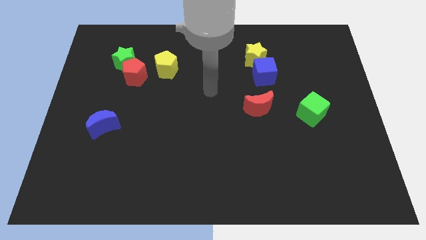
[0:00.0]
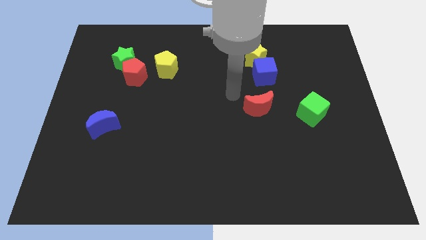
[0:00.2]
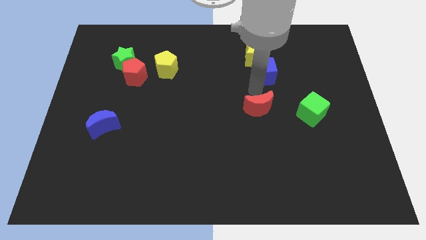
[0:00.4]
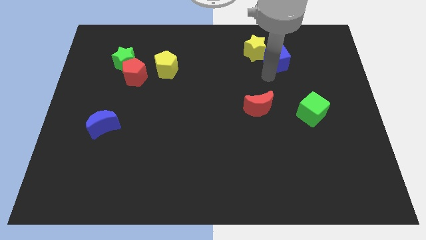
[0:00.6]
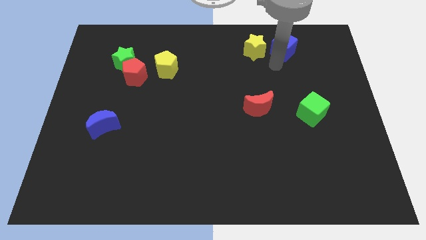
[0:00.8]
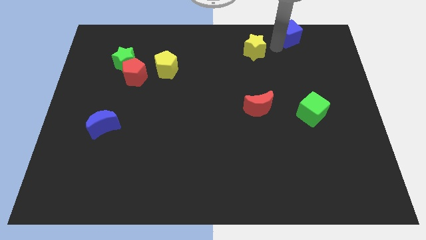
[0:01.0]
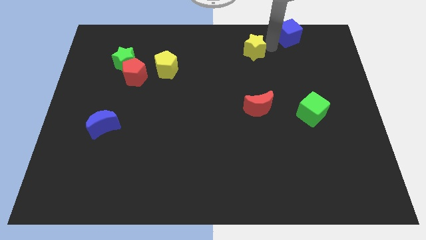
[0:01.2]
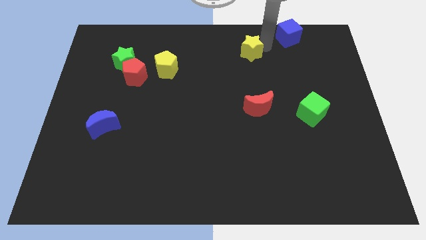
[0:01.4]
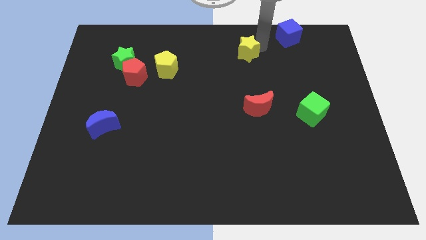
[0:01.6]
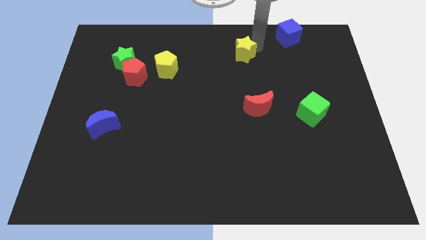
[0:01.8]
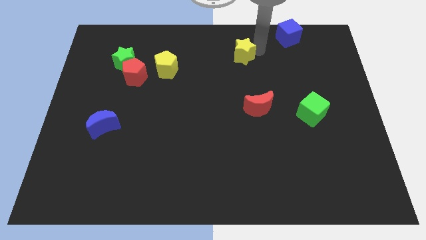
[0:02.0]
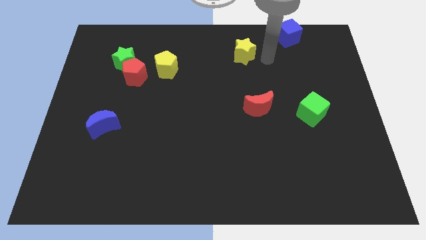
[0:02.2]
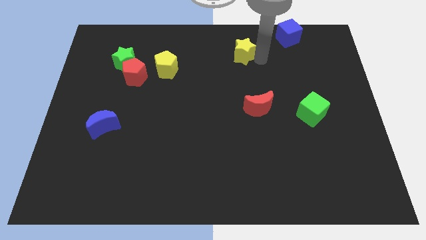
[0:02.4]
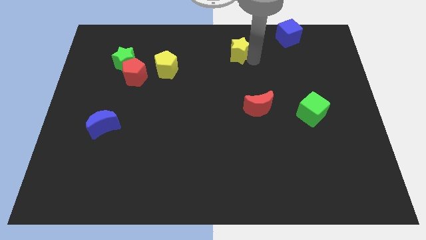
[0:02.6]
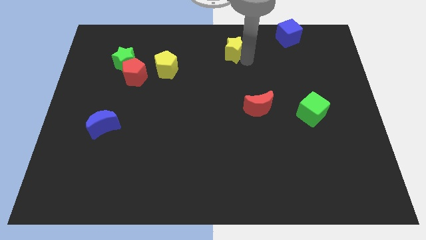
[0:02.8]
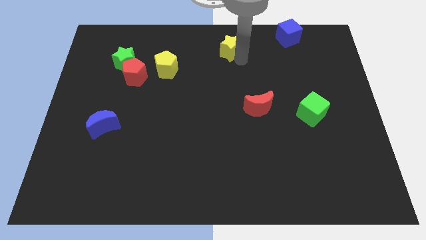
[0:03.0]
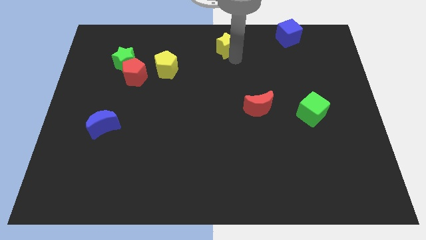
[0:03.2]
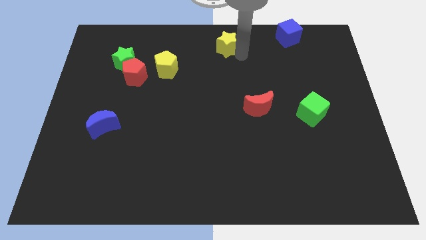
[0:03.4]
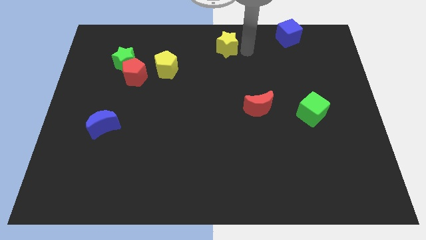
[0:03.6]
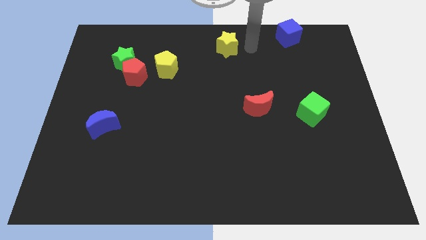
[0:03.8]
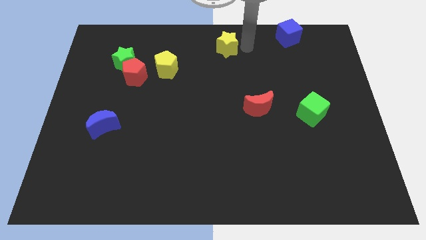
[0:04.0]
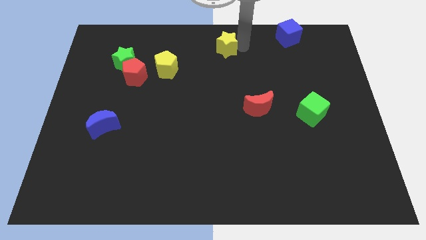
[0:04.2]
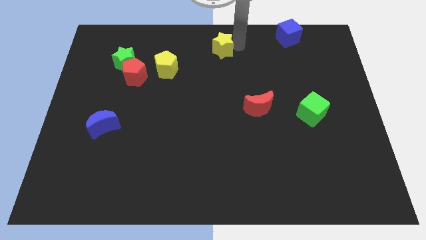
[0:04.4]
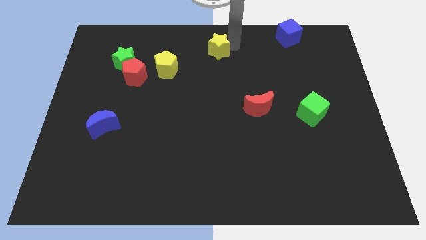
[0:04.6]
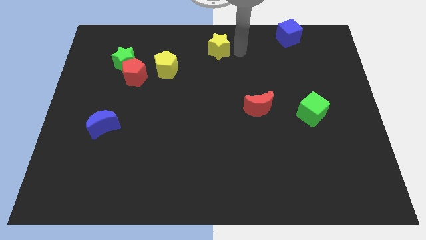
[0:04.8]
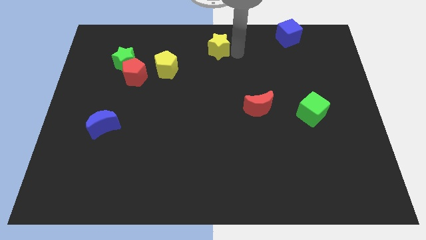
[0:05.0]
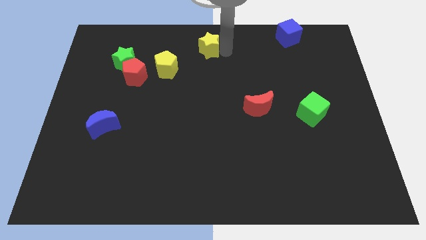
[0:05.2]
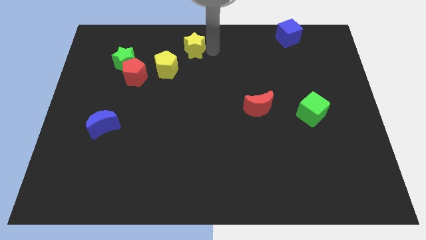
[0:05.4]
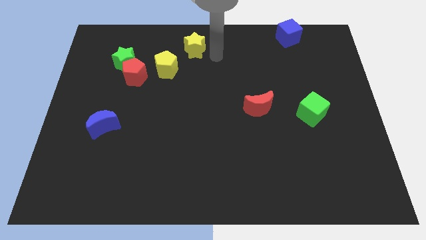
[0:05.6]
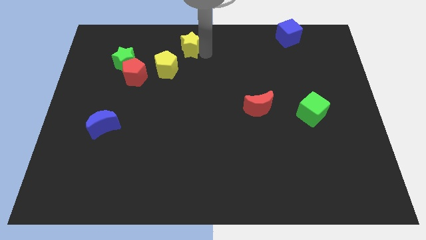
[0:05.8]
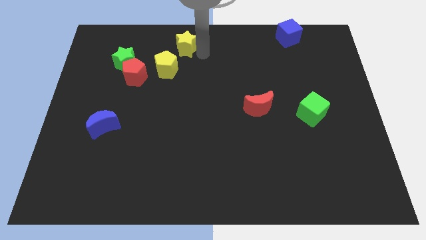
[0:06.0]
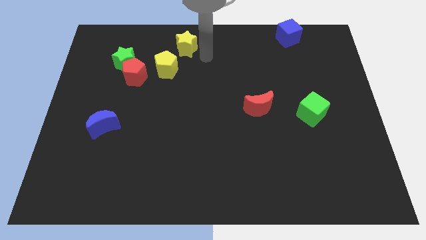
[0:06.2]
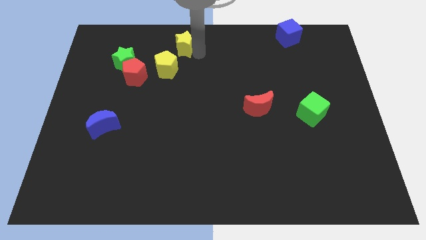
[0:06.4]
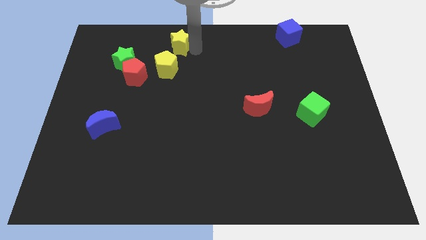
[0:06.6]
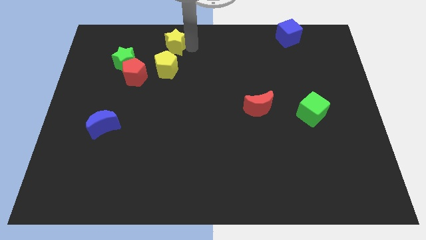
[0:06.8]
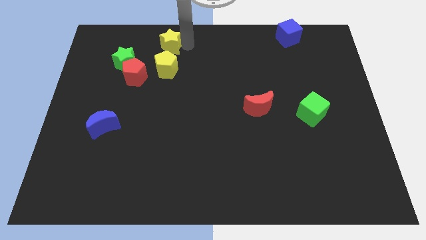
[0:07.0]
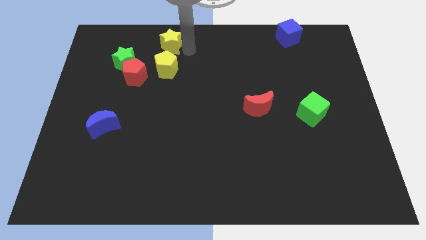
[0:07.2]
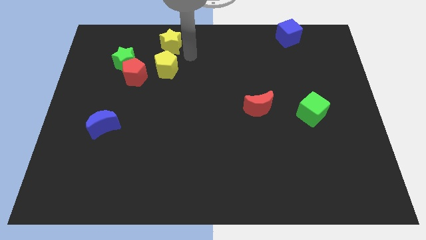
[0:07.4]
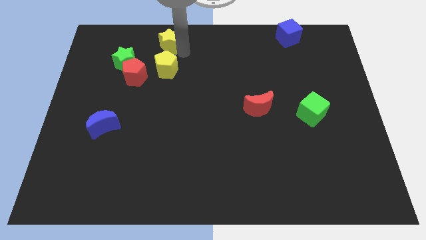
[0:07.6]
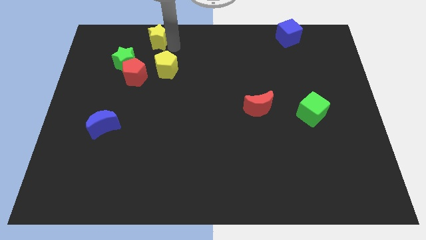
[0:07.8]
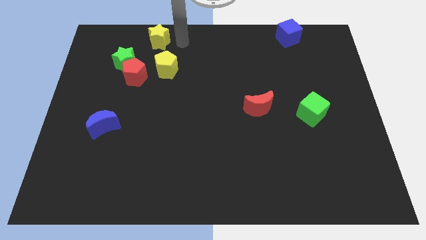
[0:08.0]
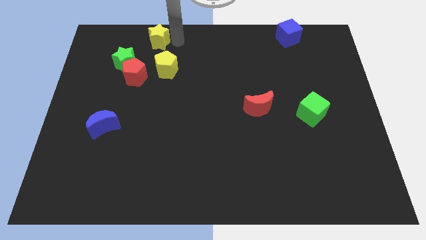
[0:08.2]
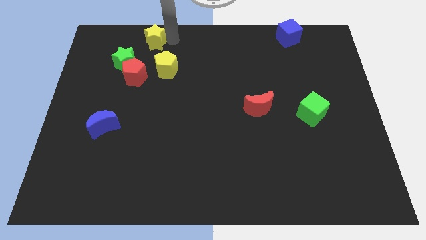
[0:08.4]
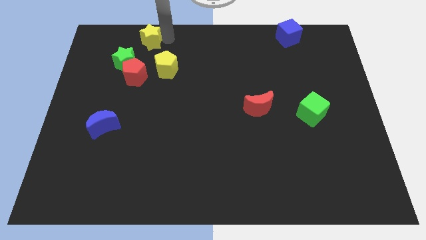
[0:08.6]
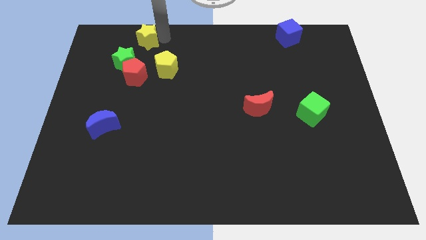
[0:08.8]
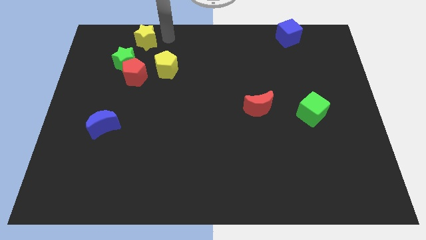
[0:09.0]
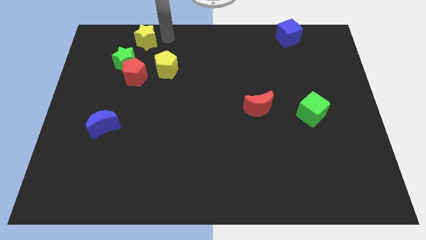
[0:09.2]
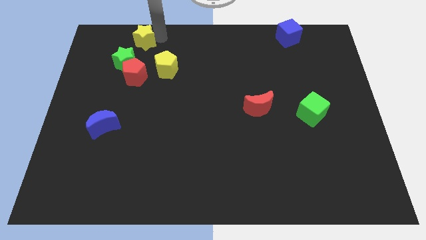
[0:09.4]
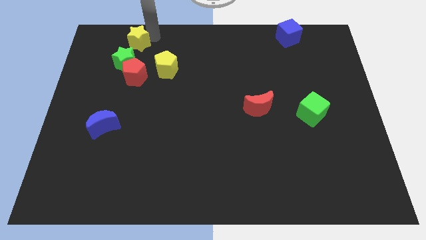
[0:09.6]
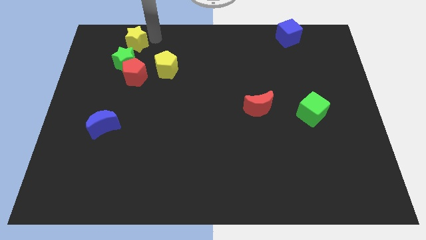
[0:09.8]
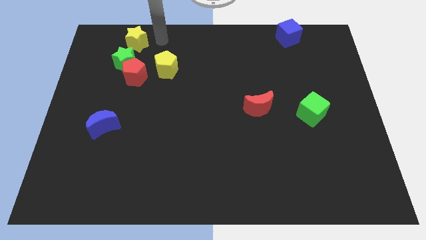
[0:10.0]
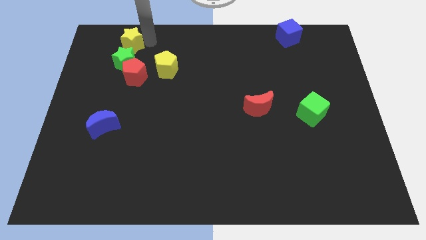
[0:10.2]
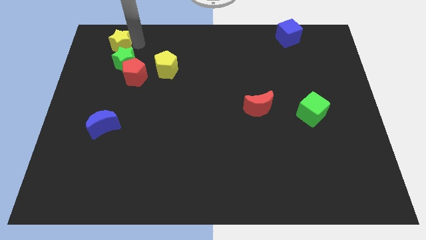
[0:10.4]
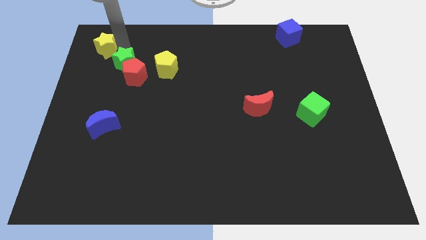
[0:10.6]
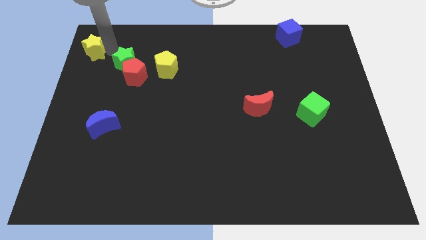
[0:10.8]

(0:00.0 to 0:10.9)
move the yellow star to the top left of the board

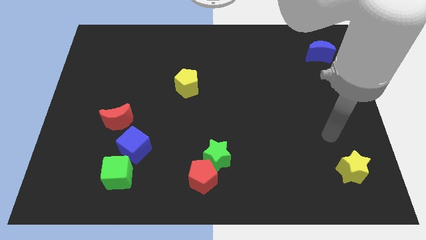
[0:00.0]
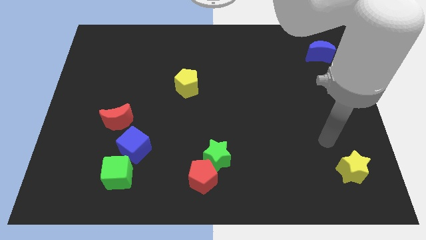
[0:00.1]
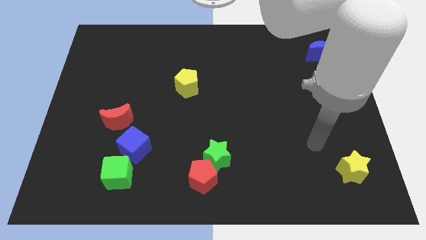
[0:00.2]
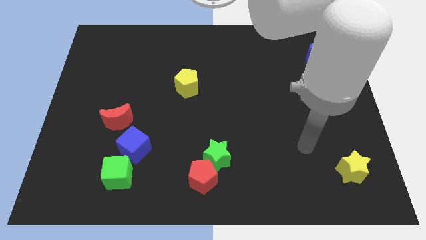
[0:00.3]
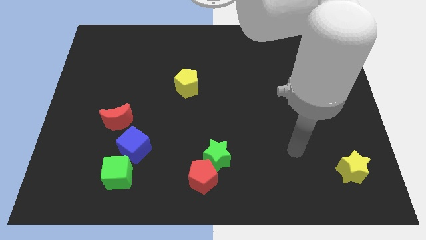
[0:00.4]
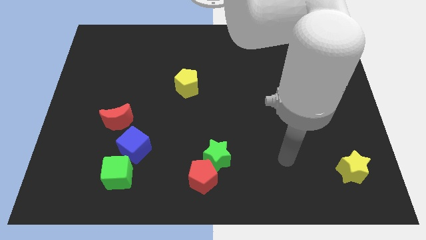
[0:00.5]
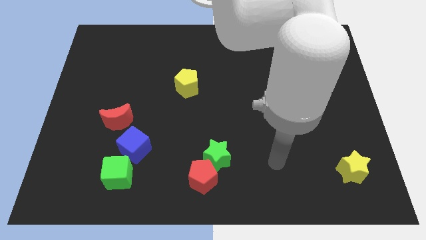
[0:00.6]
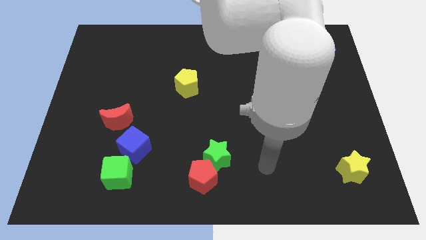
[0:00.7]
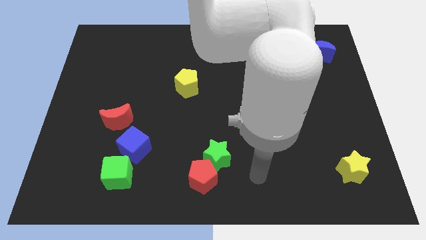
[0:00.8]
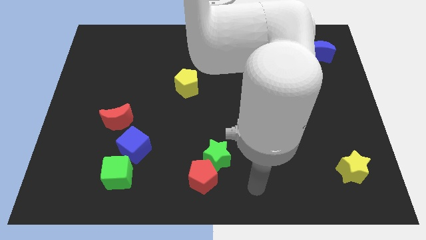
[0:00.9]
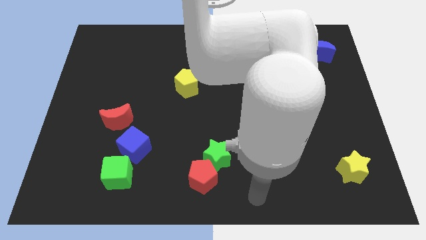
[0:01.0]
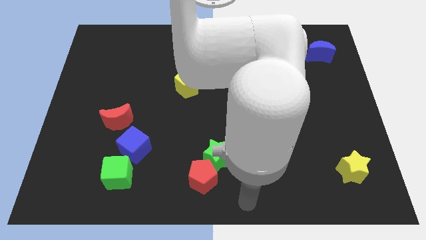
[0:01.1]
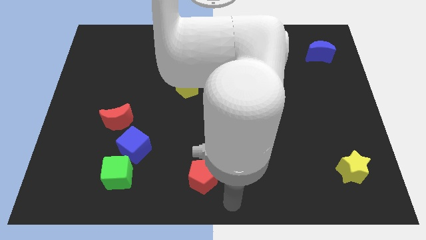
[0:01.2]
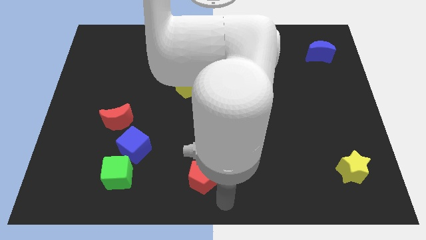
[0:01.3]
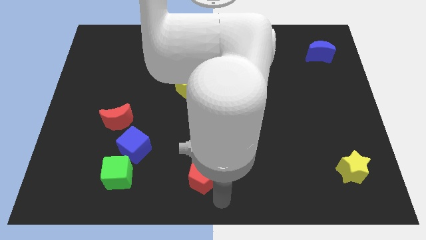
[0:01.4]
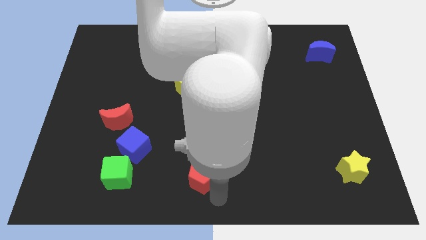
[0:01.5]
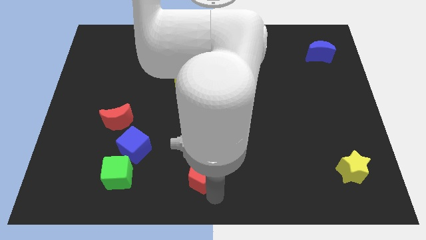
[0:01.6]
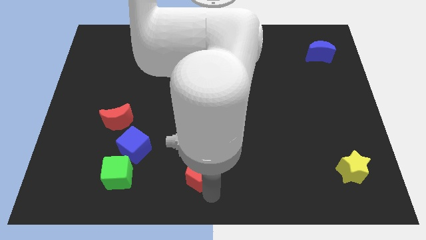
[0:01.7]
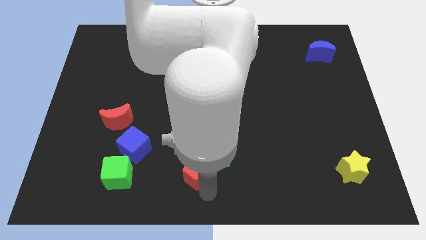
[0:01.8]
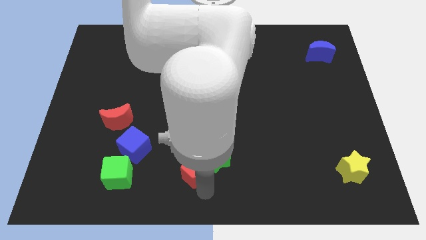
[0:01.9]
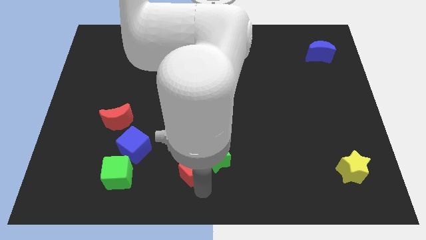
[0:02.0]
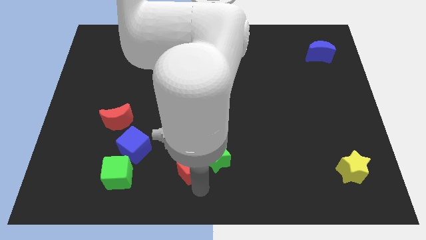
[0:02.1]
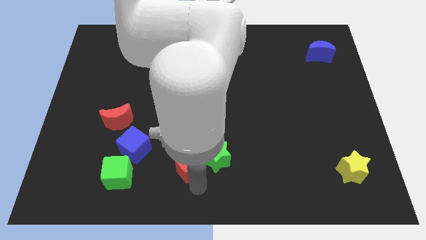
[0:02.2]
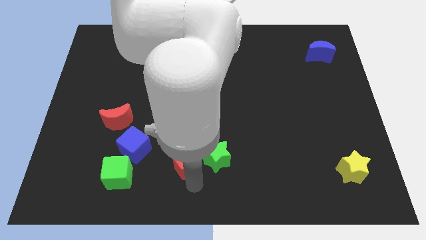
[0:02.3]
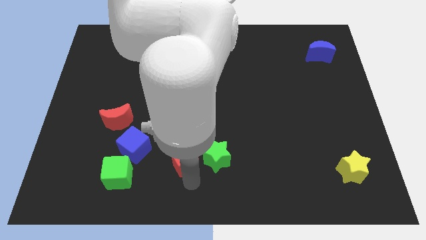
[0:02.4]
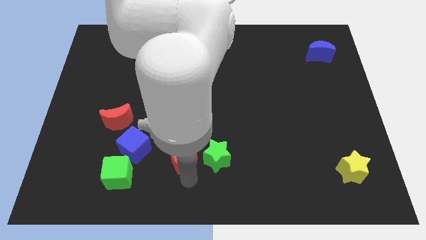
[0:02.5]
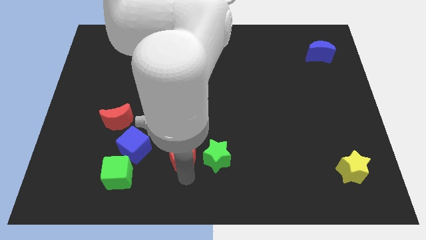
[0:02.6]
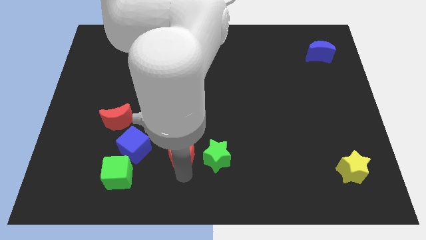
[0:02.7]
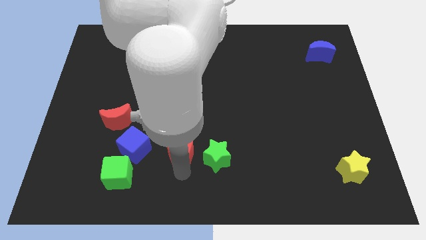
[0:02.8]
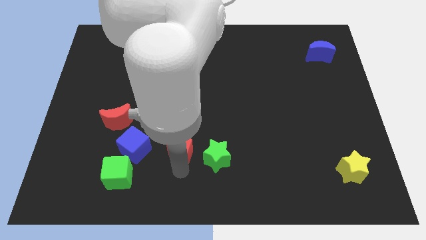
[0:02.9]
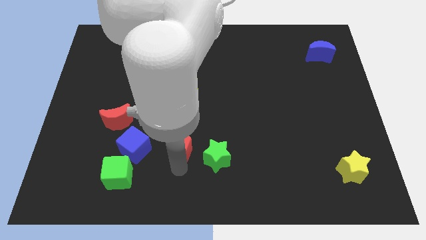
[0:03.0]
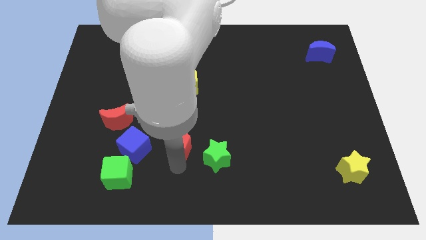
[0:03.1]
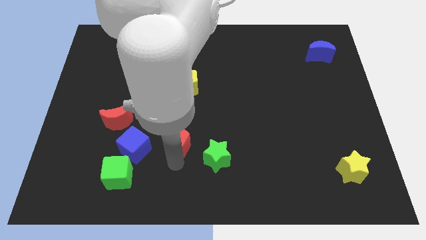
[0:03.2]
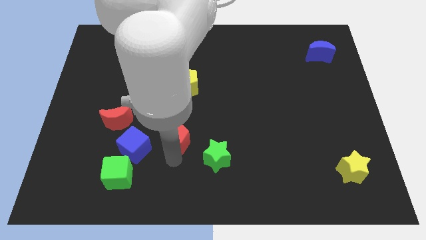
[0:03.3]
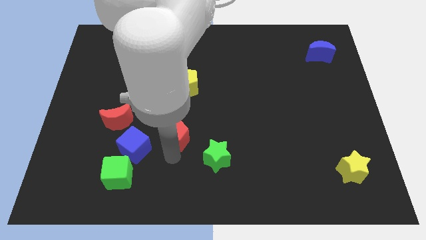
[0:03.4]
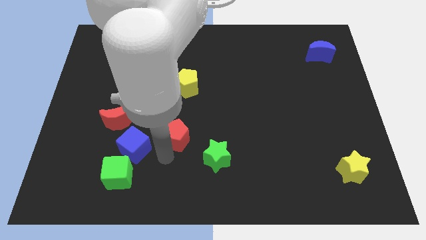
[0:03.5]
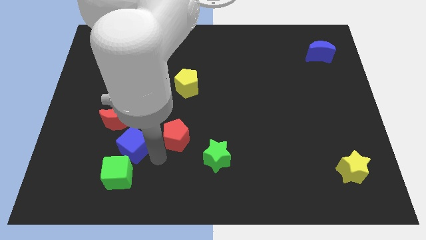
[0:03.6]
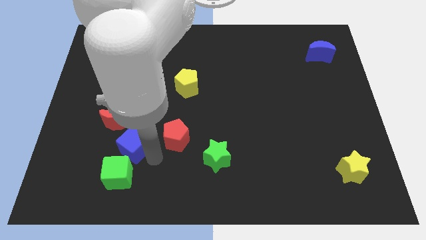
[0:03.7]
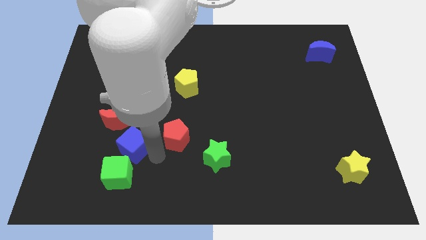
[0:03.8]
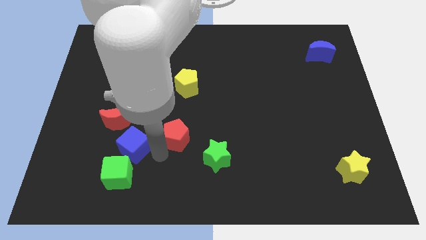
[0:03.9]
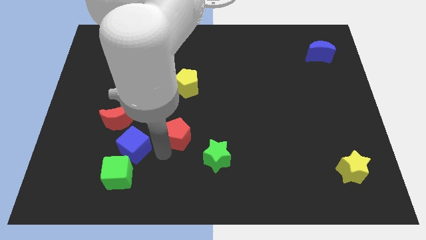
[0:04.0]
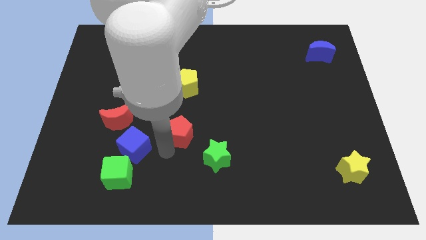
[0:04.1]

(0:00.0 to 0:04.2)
push the red pentagon to the middle of the board
